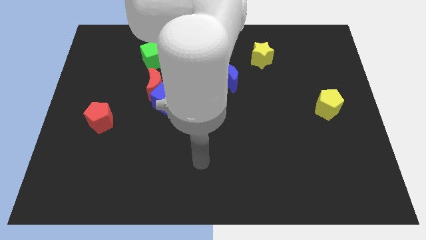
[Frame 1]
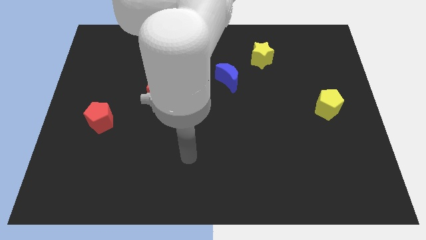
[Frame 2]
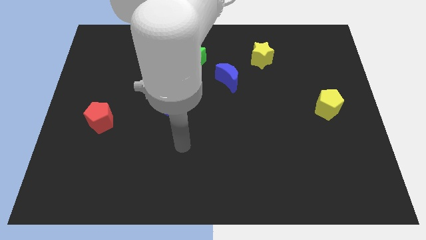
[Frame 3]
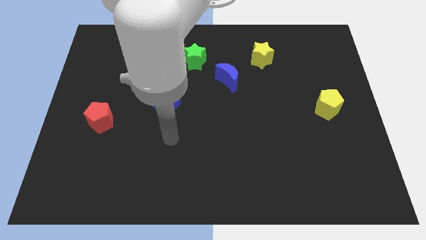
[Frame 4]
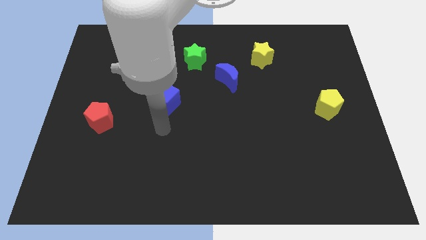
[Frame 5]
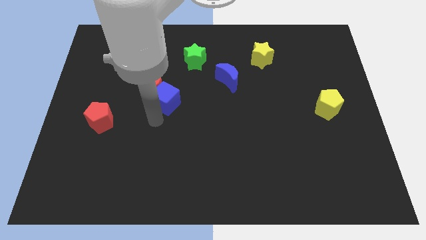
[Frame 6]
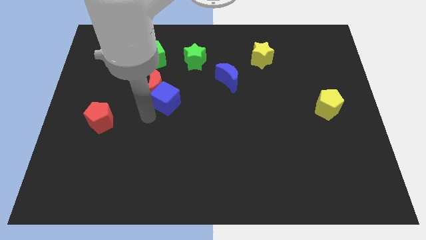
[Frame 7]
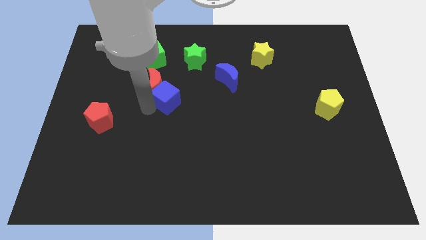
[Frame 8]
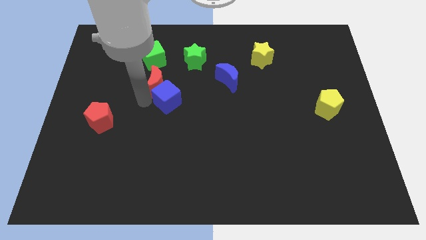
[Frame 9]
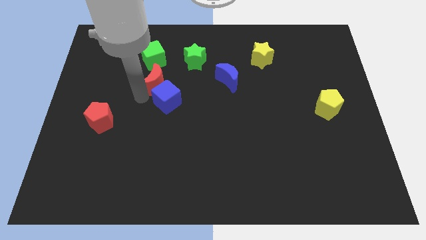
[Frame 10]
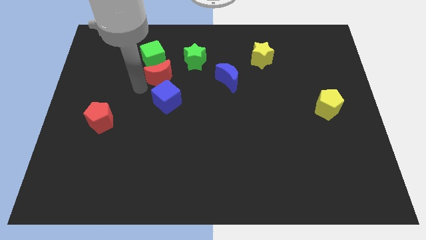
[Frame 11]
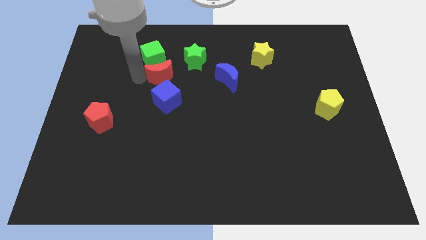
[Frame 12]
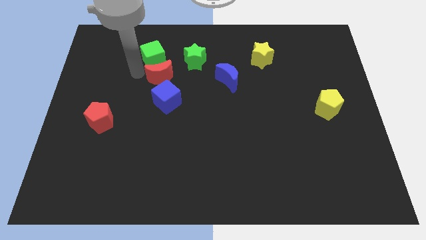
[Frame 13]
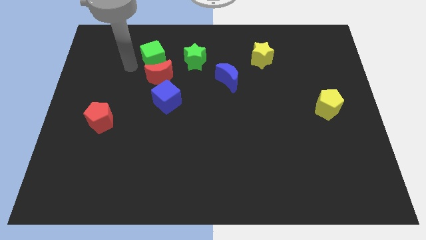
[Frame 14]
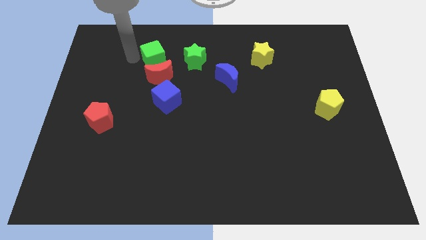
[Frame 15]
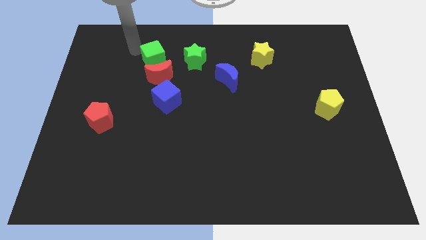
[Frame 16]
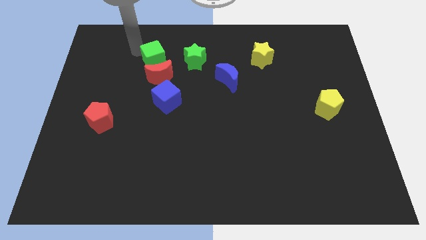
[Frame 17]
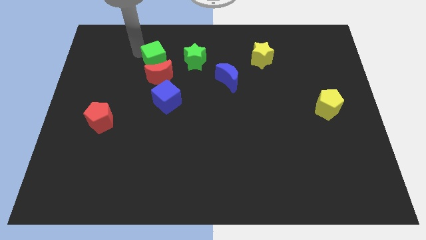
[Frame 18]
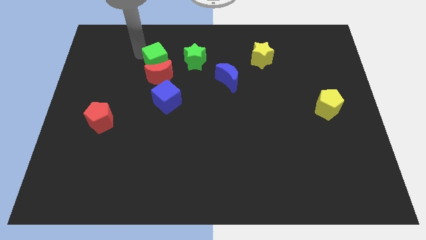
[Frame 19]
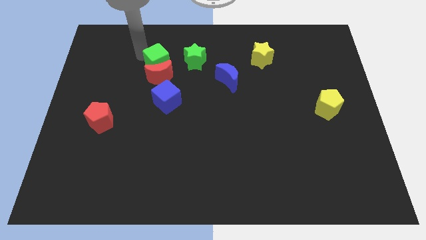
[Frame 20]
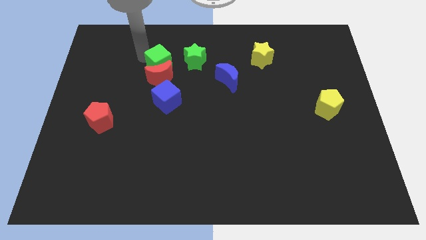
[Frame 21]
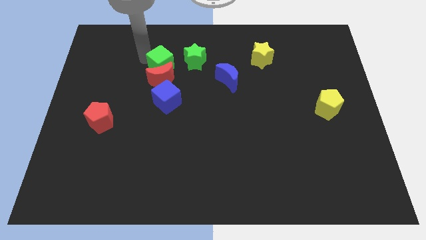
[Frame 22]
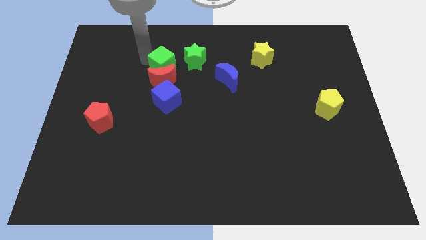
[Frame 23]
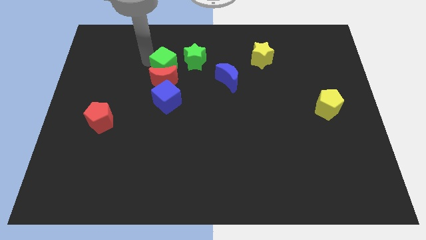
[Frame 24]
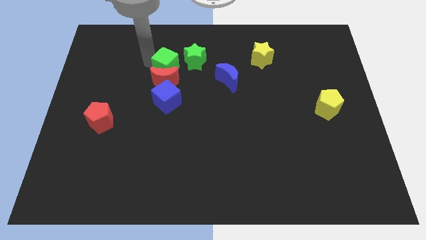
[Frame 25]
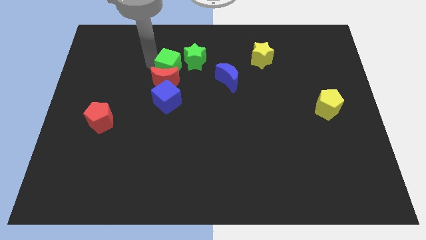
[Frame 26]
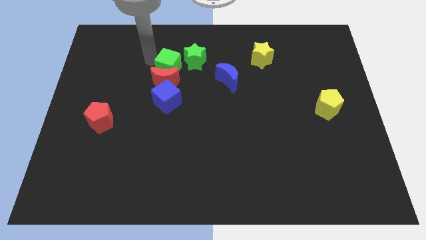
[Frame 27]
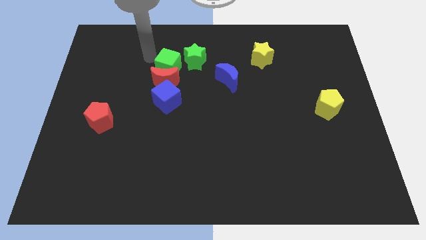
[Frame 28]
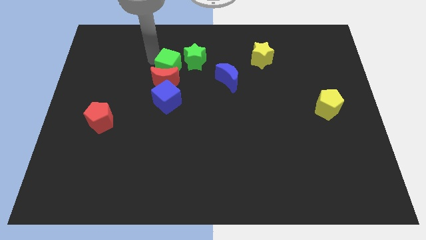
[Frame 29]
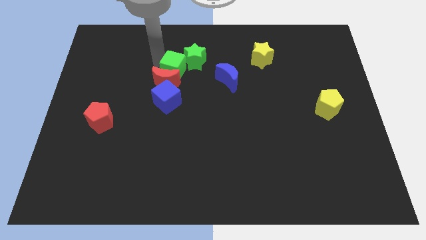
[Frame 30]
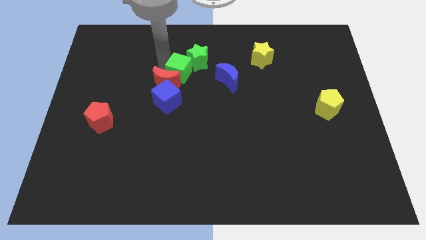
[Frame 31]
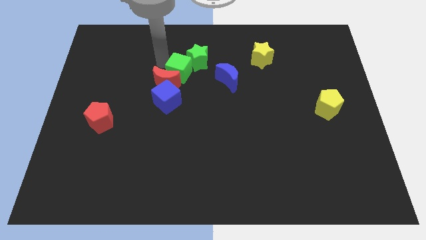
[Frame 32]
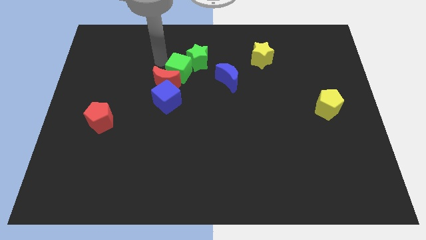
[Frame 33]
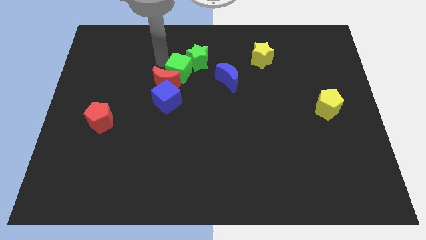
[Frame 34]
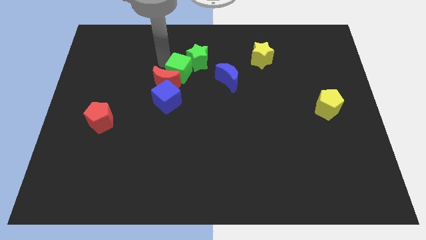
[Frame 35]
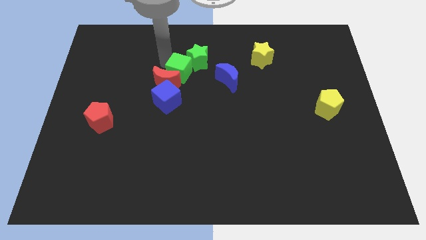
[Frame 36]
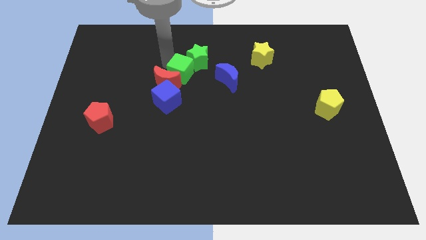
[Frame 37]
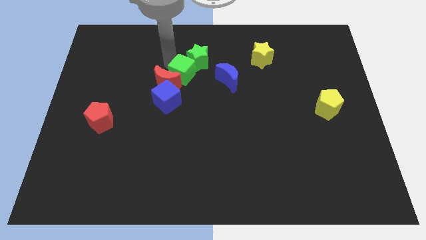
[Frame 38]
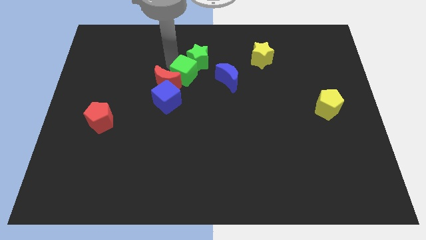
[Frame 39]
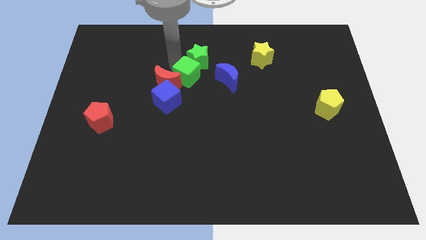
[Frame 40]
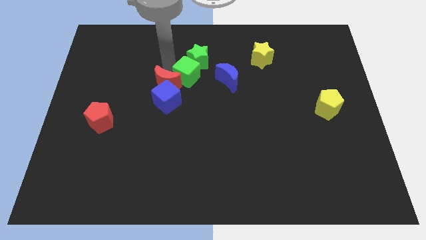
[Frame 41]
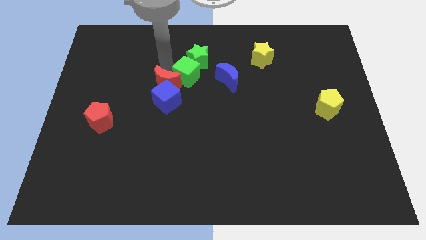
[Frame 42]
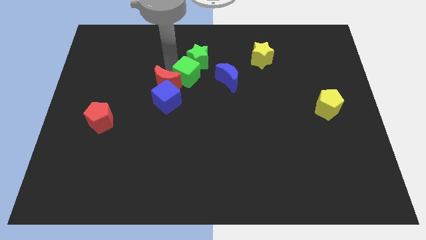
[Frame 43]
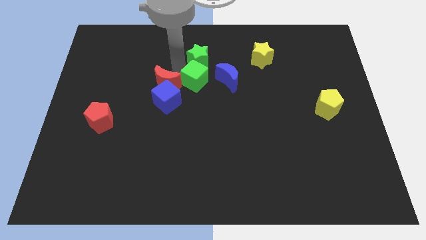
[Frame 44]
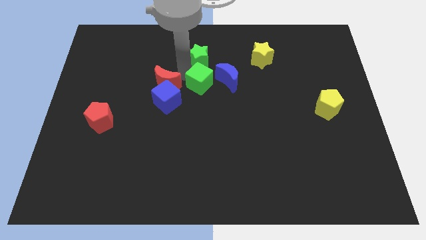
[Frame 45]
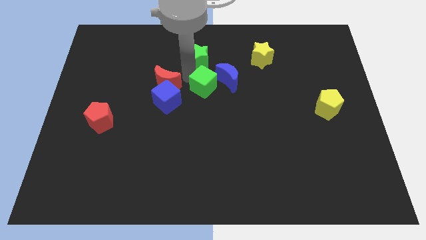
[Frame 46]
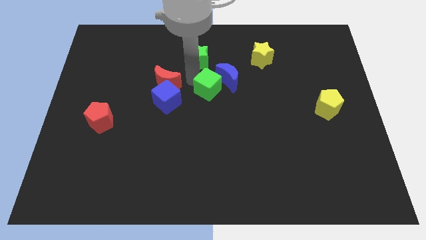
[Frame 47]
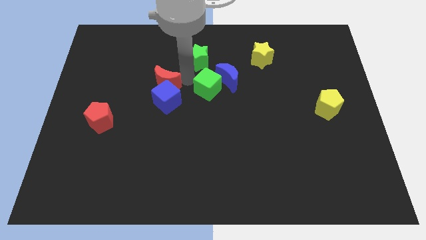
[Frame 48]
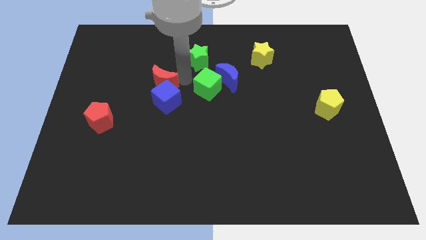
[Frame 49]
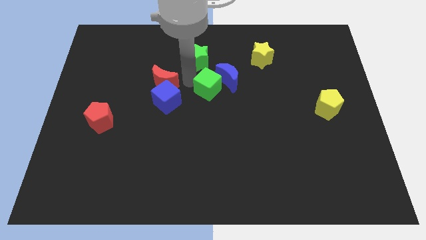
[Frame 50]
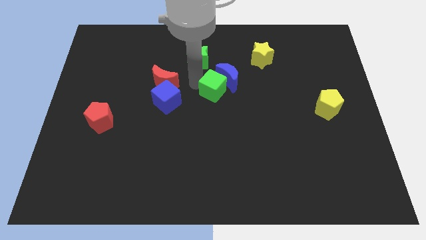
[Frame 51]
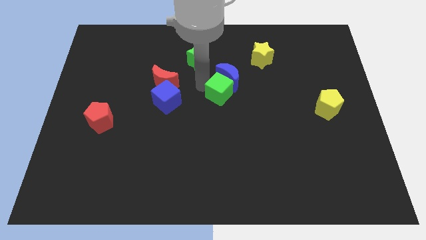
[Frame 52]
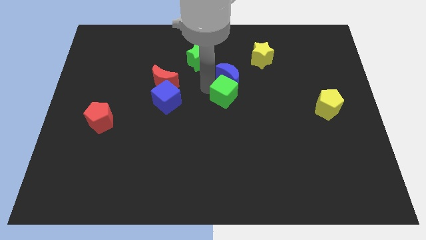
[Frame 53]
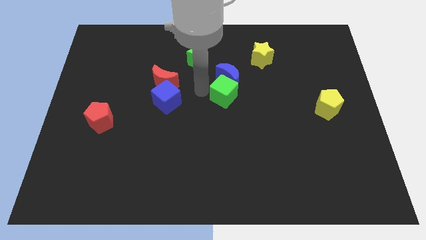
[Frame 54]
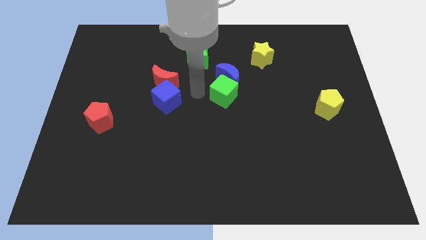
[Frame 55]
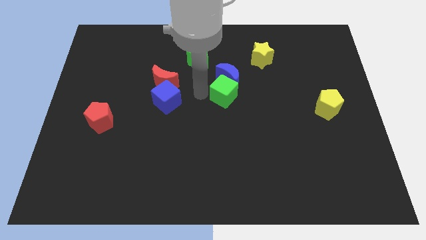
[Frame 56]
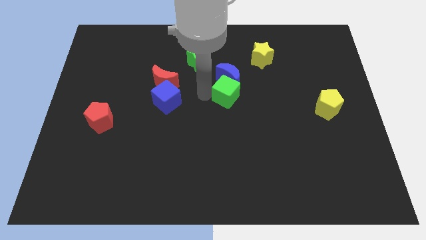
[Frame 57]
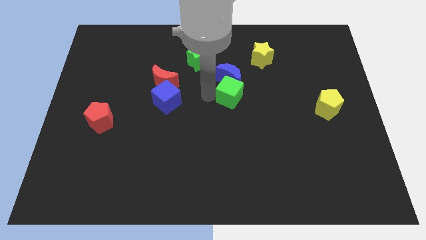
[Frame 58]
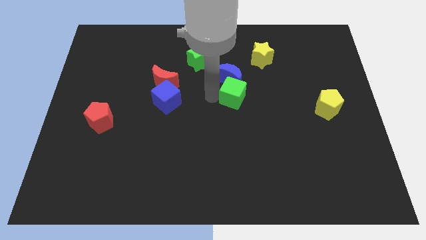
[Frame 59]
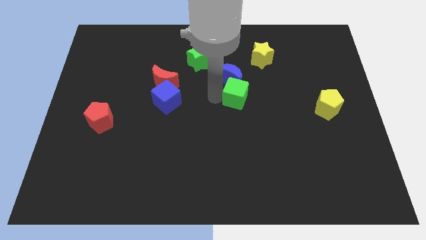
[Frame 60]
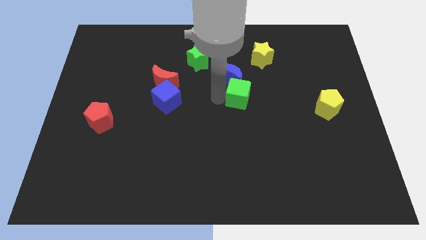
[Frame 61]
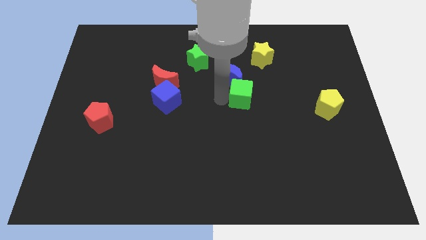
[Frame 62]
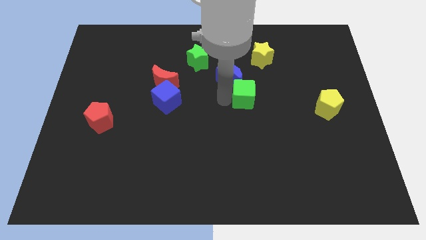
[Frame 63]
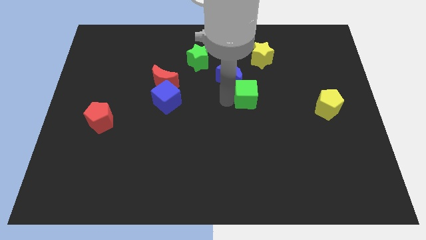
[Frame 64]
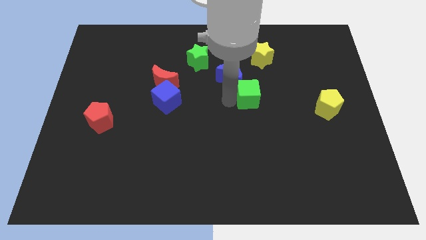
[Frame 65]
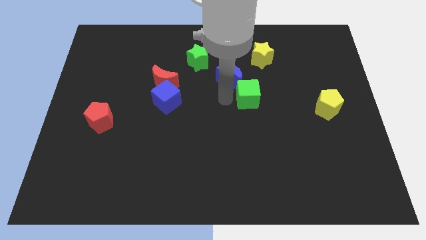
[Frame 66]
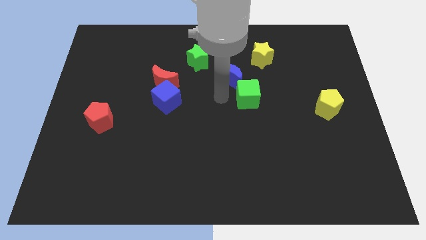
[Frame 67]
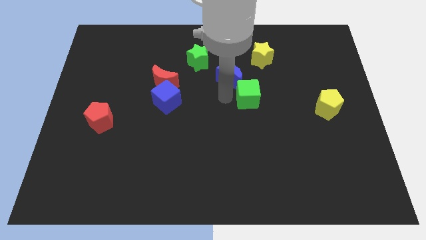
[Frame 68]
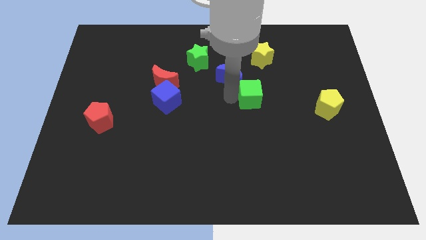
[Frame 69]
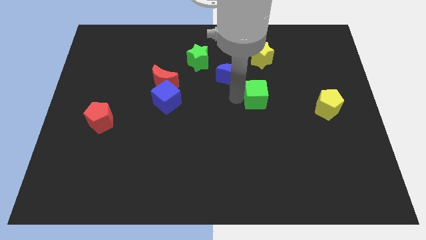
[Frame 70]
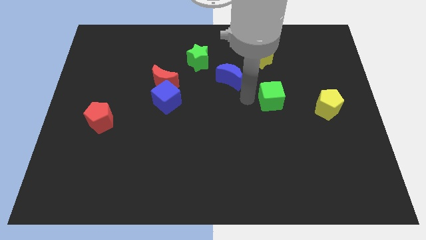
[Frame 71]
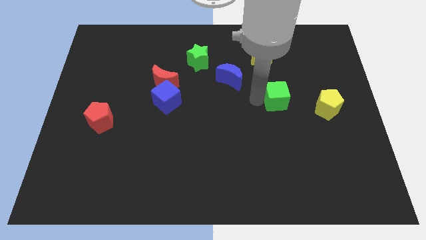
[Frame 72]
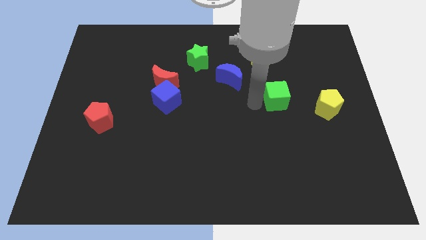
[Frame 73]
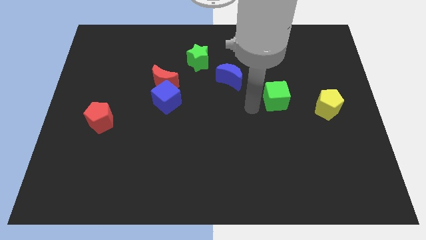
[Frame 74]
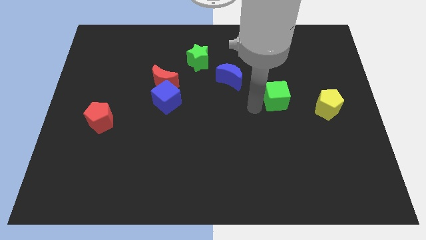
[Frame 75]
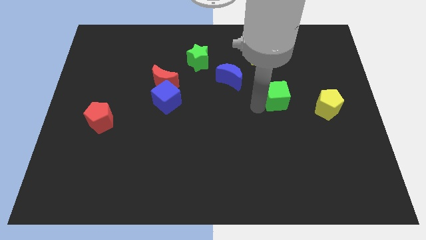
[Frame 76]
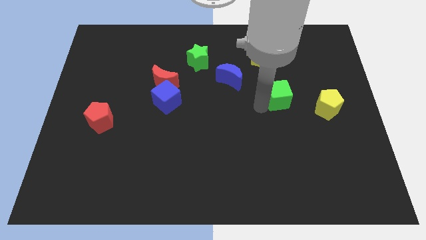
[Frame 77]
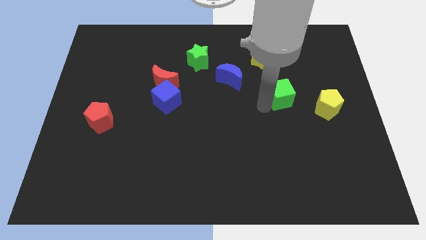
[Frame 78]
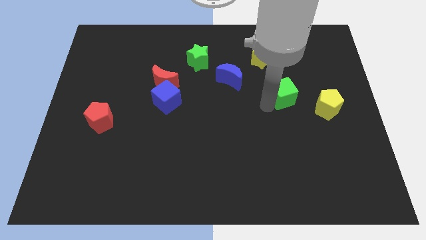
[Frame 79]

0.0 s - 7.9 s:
move the green cube diagonally up and to the left of the yellow pentagon

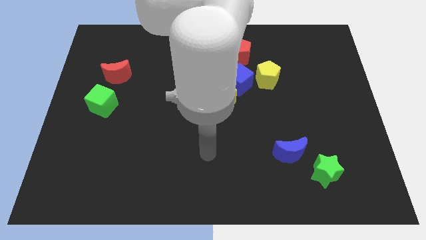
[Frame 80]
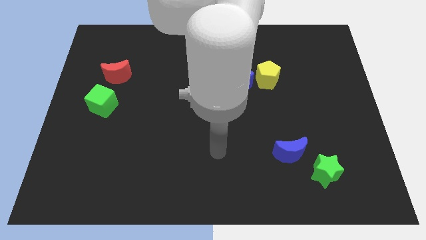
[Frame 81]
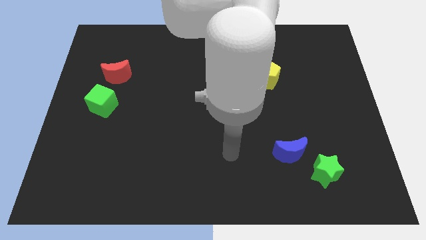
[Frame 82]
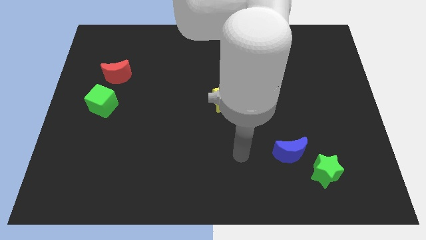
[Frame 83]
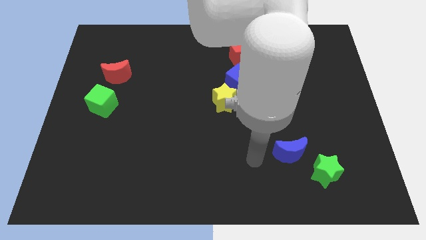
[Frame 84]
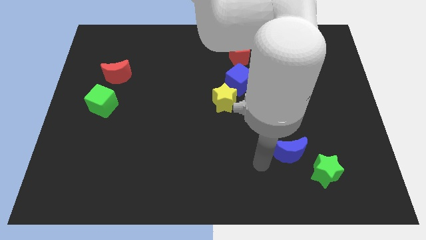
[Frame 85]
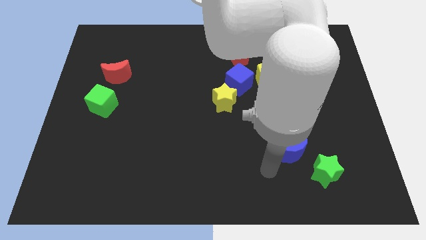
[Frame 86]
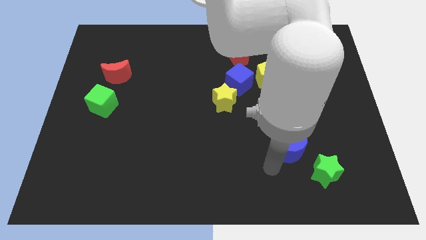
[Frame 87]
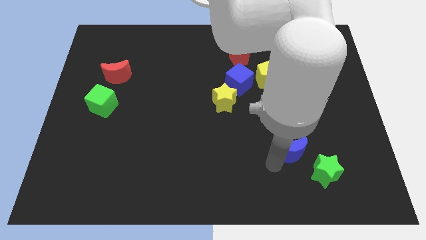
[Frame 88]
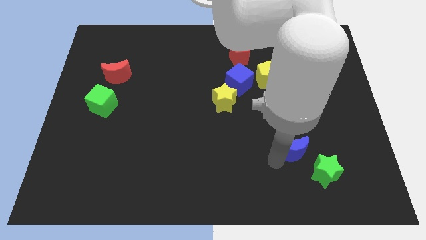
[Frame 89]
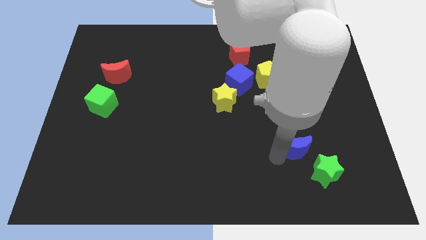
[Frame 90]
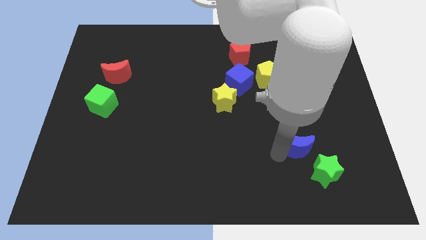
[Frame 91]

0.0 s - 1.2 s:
slide the blue moon to the top of the green star
